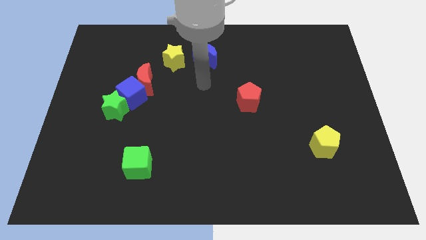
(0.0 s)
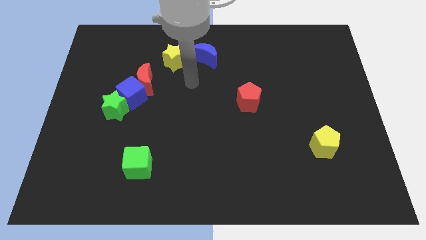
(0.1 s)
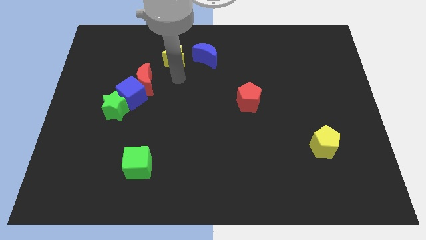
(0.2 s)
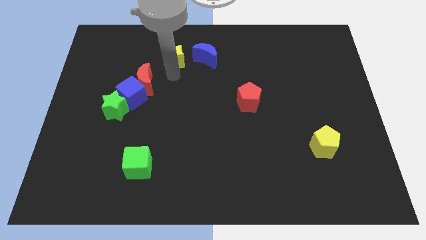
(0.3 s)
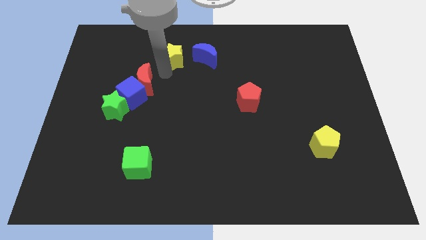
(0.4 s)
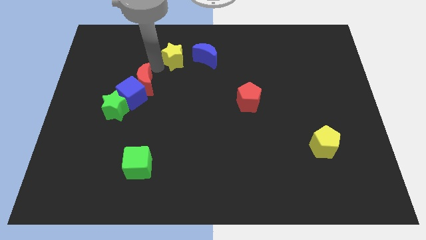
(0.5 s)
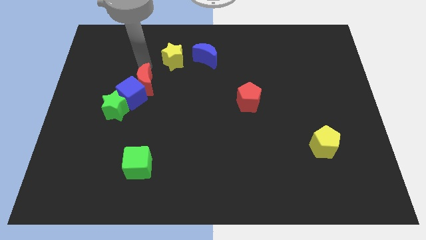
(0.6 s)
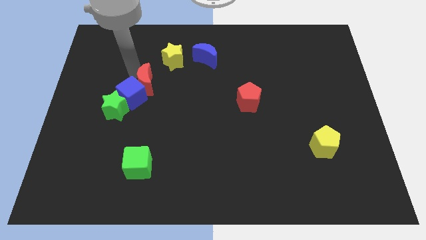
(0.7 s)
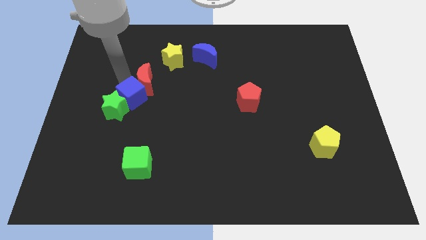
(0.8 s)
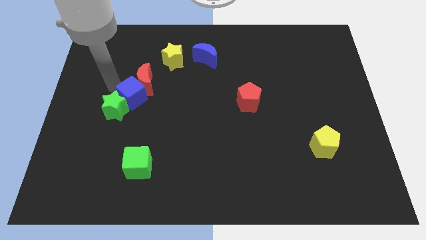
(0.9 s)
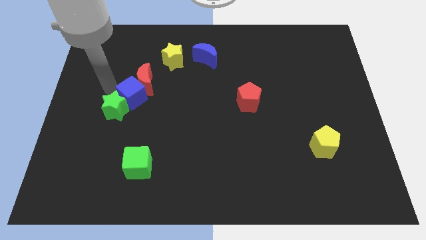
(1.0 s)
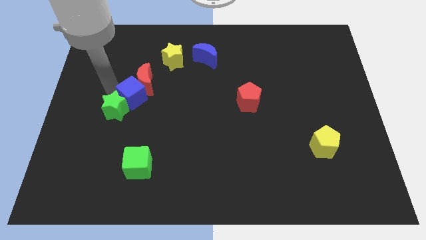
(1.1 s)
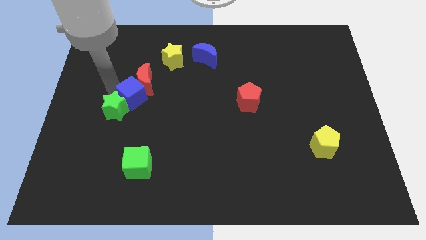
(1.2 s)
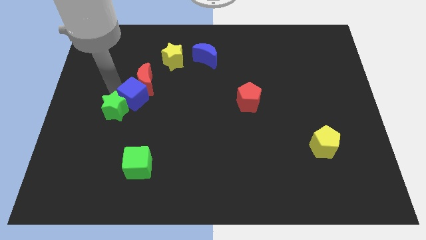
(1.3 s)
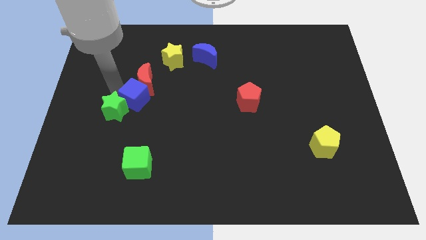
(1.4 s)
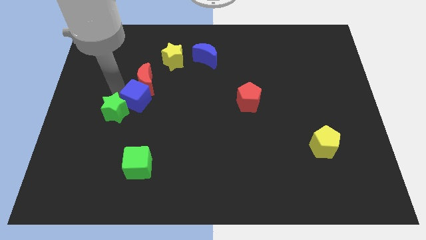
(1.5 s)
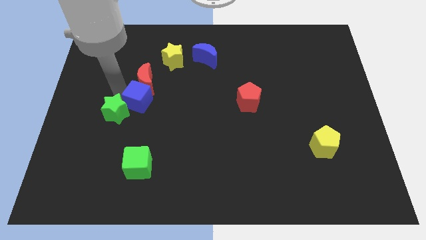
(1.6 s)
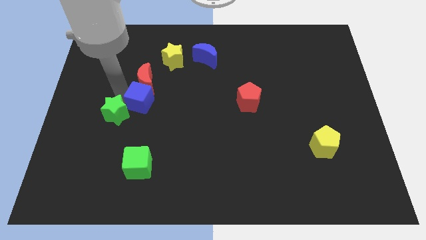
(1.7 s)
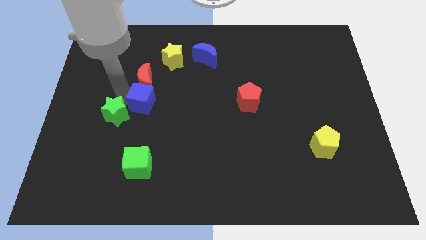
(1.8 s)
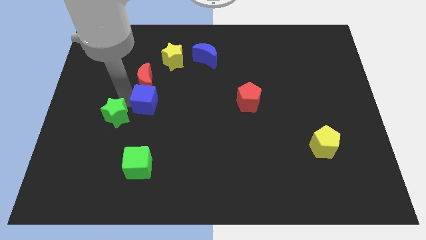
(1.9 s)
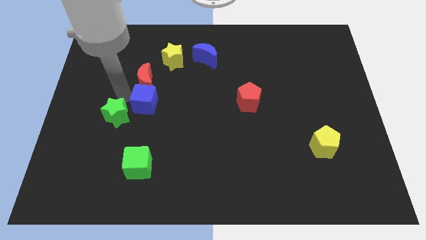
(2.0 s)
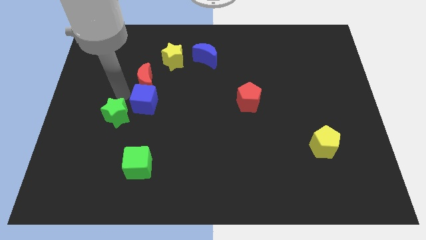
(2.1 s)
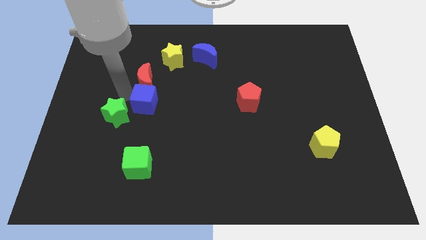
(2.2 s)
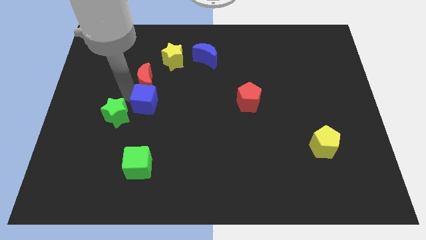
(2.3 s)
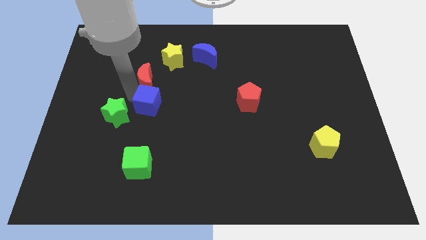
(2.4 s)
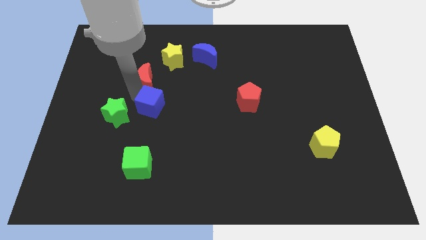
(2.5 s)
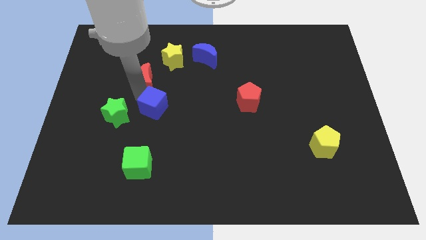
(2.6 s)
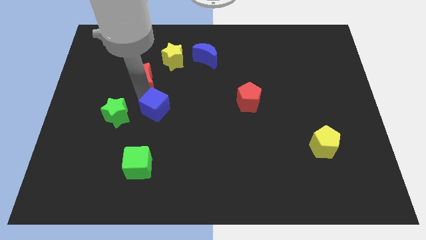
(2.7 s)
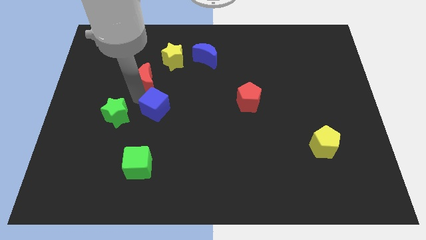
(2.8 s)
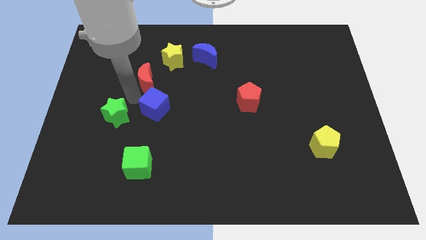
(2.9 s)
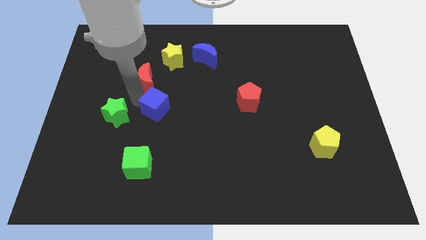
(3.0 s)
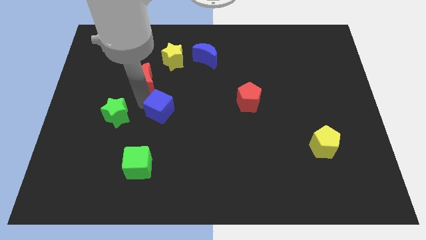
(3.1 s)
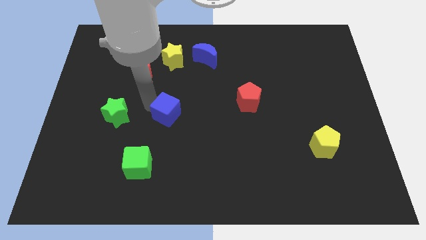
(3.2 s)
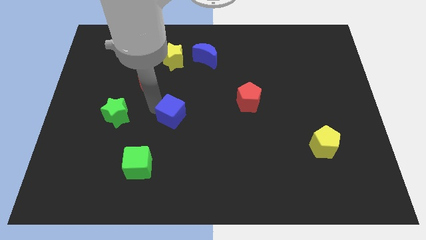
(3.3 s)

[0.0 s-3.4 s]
separate the blue cube from the red moon and green star

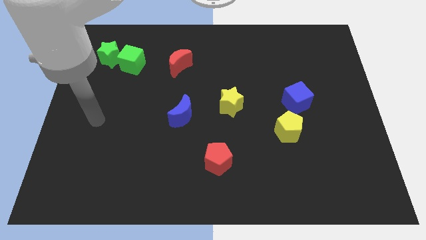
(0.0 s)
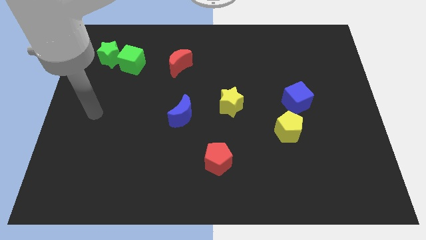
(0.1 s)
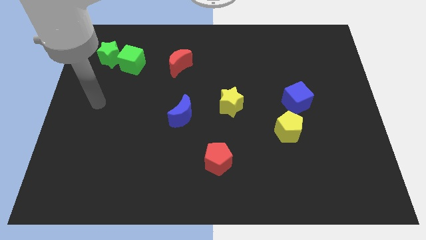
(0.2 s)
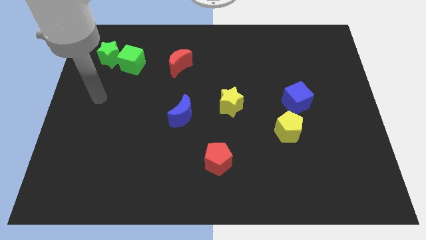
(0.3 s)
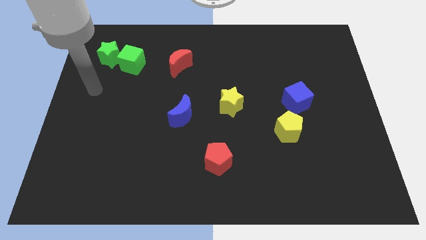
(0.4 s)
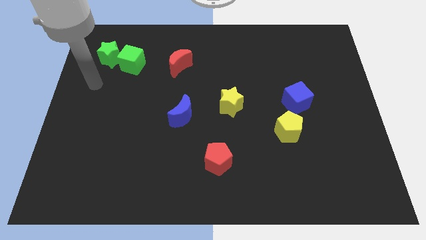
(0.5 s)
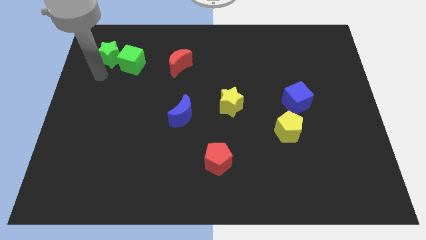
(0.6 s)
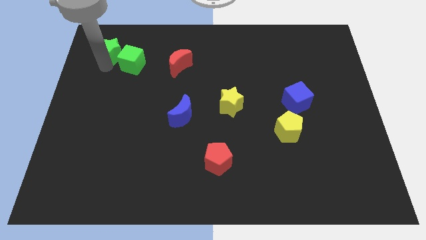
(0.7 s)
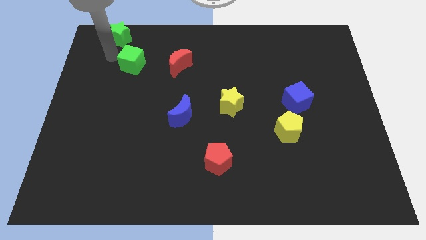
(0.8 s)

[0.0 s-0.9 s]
separate the green cube from the green star

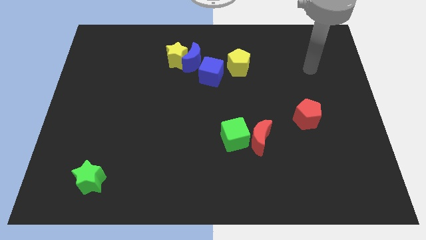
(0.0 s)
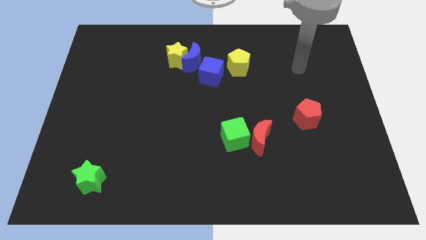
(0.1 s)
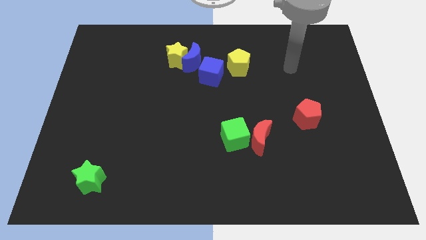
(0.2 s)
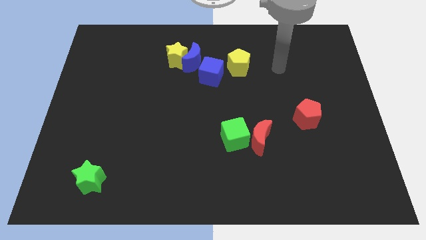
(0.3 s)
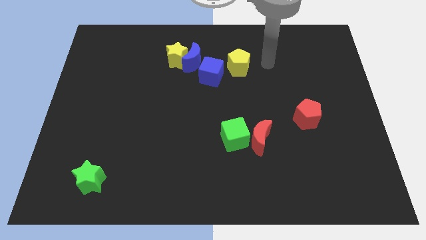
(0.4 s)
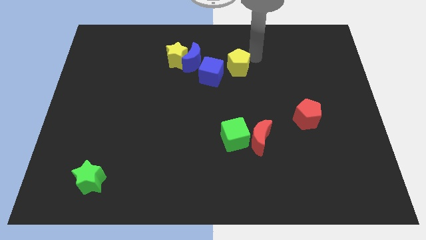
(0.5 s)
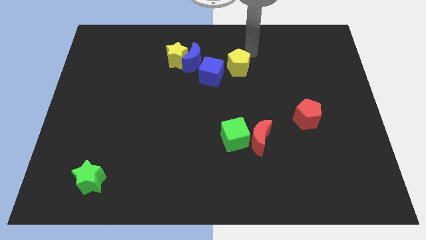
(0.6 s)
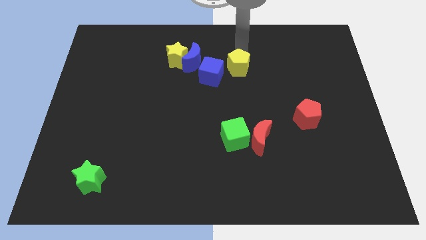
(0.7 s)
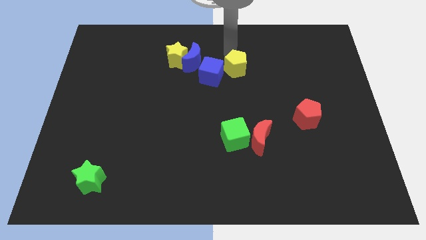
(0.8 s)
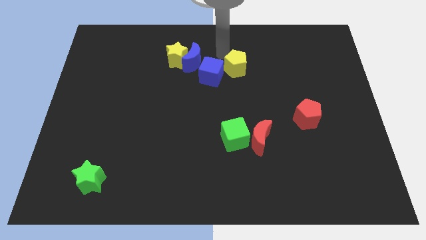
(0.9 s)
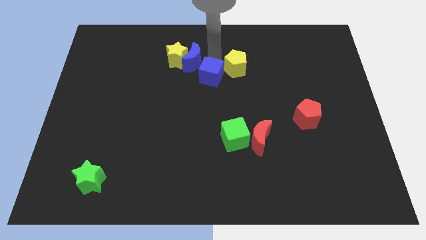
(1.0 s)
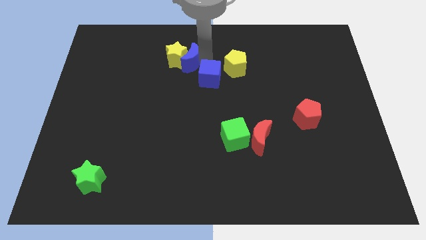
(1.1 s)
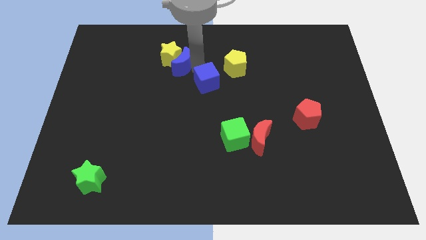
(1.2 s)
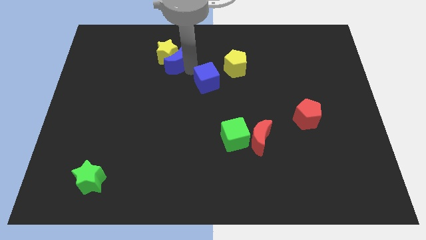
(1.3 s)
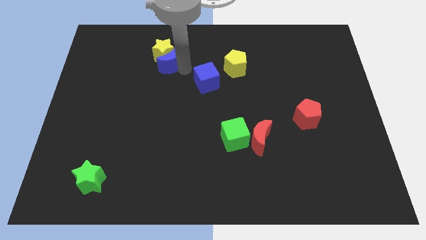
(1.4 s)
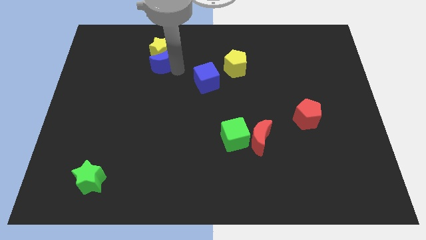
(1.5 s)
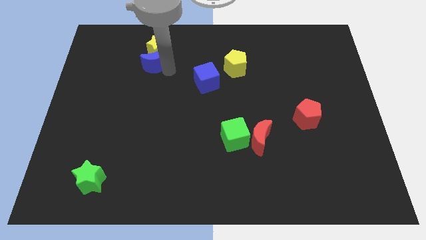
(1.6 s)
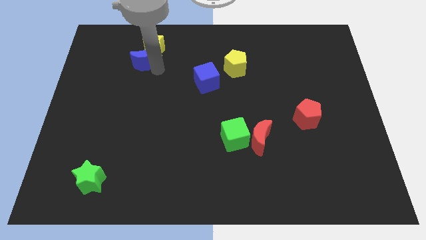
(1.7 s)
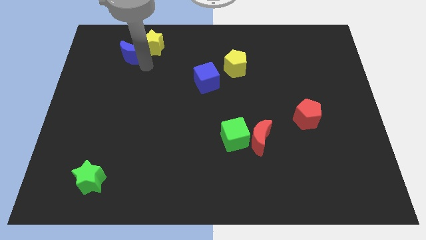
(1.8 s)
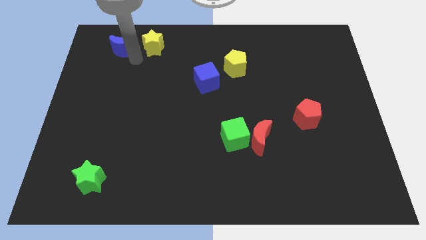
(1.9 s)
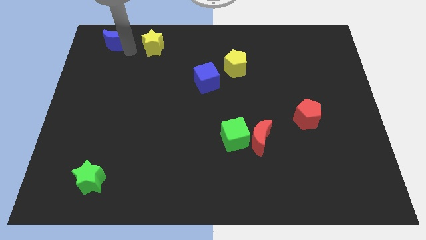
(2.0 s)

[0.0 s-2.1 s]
separate the yellow star from the blue moon

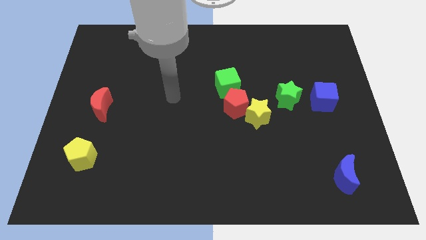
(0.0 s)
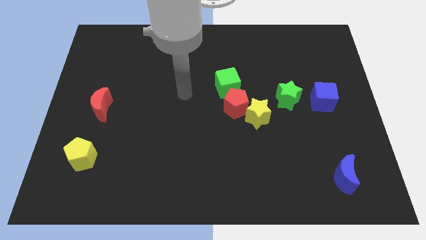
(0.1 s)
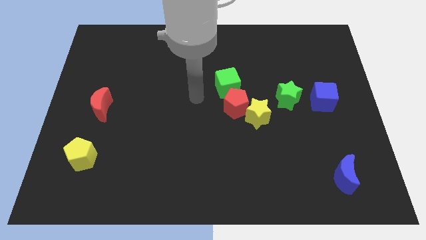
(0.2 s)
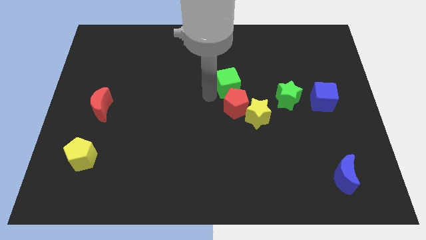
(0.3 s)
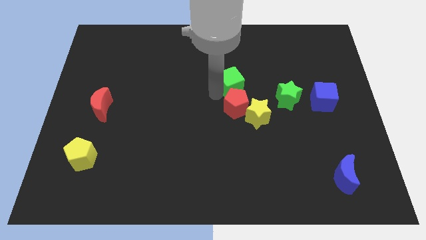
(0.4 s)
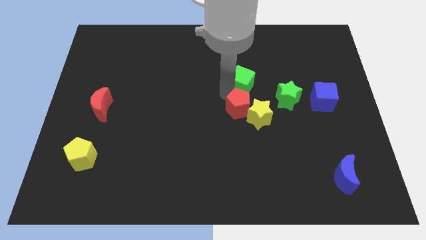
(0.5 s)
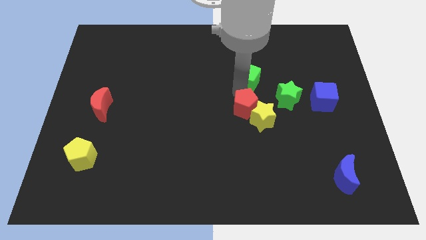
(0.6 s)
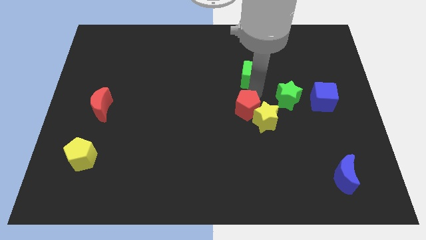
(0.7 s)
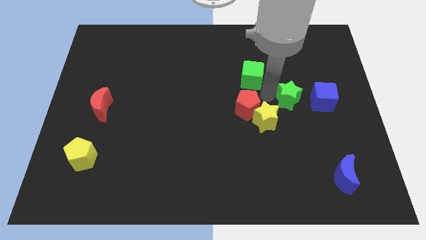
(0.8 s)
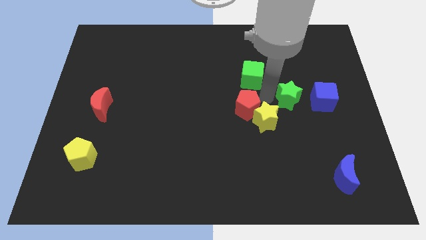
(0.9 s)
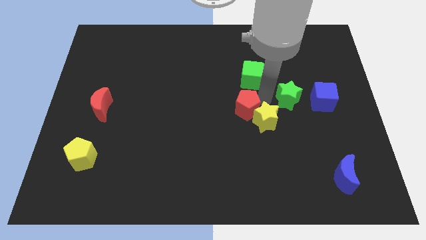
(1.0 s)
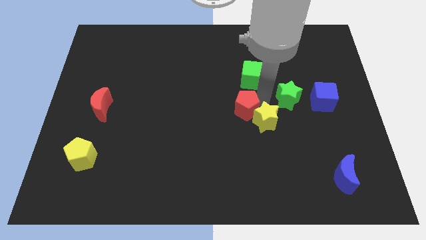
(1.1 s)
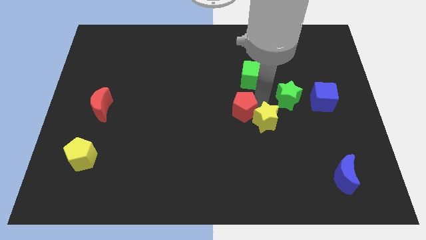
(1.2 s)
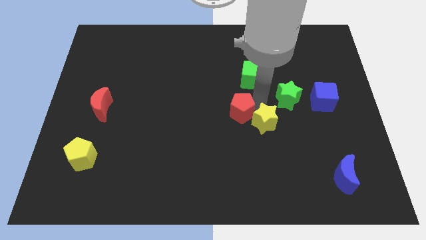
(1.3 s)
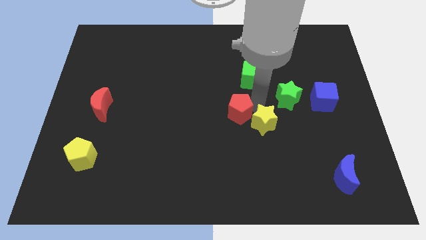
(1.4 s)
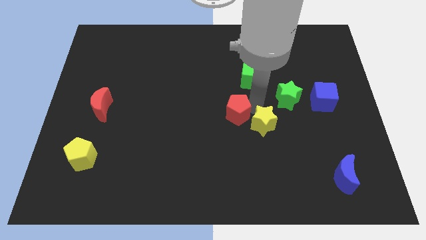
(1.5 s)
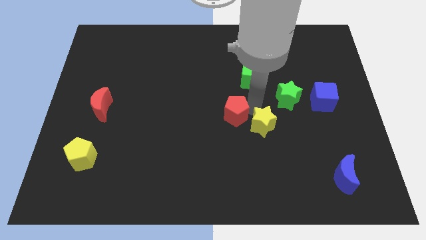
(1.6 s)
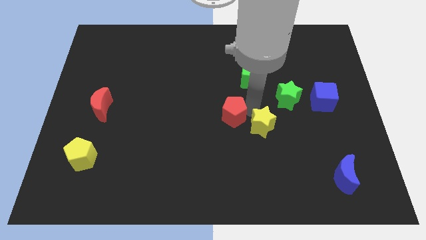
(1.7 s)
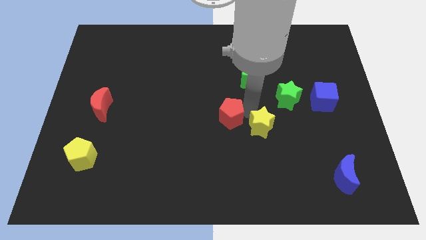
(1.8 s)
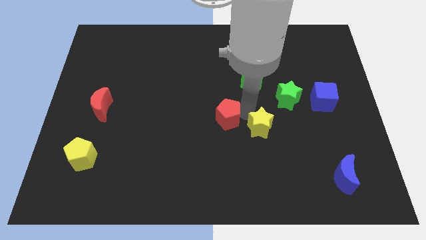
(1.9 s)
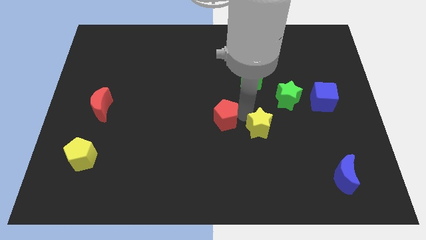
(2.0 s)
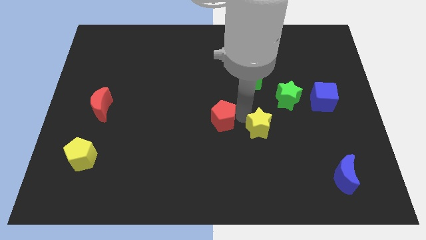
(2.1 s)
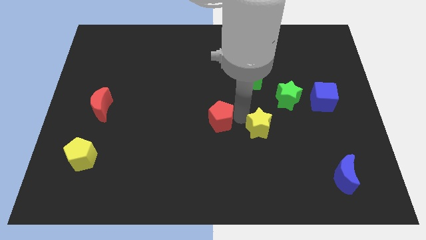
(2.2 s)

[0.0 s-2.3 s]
separate the red pentagon from the yellow star and green cube

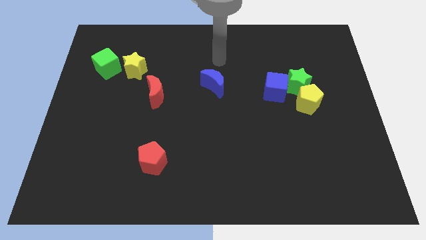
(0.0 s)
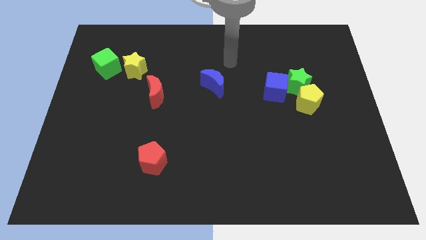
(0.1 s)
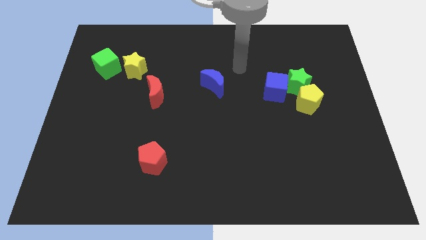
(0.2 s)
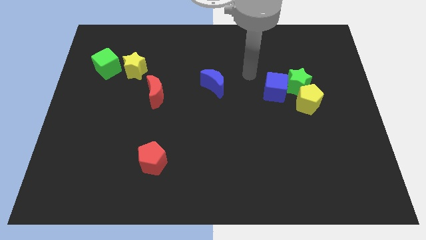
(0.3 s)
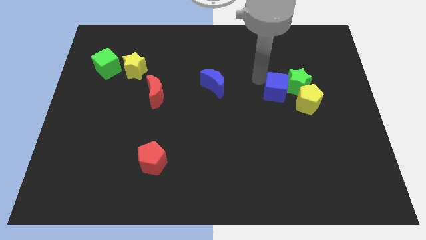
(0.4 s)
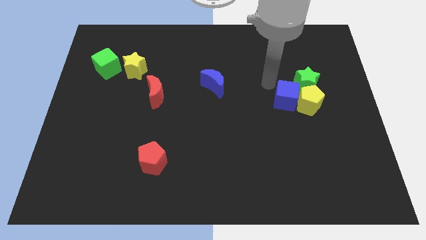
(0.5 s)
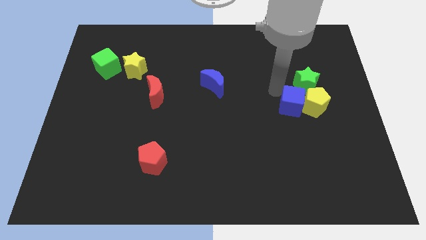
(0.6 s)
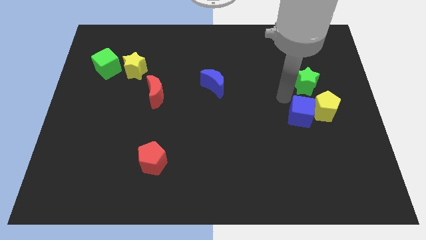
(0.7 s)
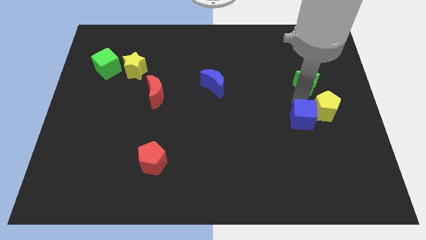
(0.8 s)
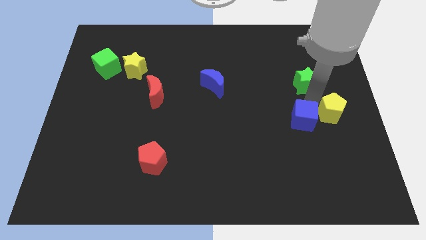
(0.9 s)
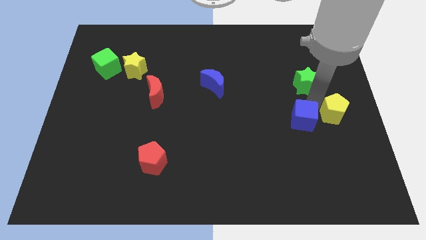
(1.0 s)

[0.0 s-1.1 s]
move the green star away from the blue cube and yellow pentagon
